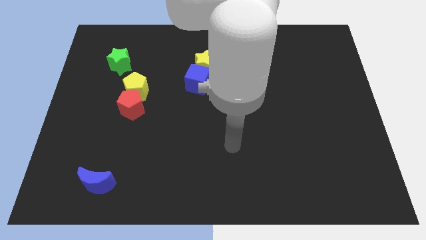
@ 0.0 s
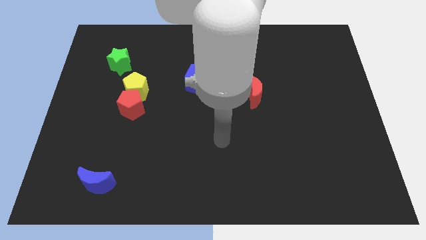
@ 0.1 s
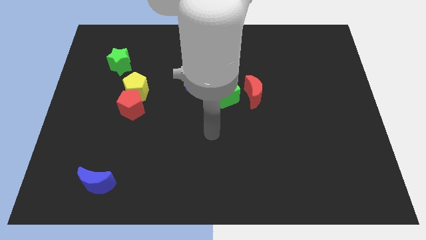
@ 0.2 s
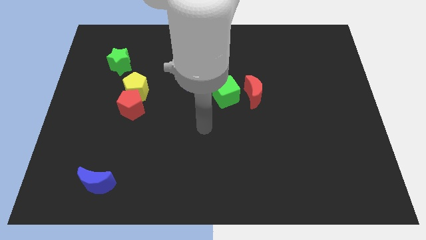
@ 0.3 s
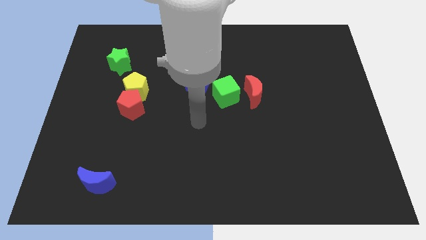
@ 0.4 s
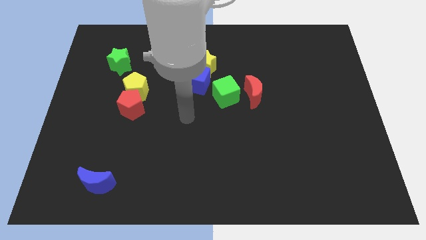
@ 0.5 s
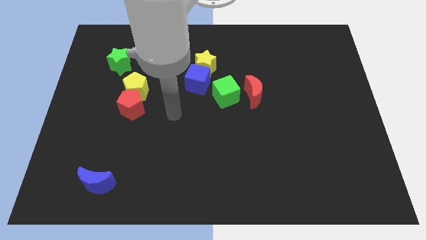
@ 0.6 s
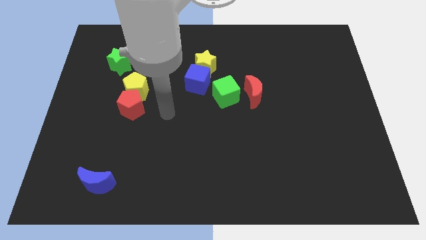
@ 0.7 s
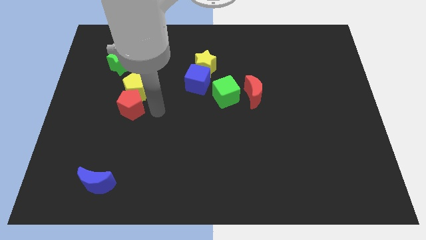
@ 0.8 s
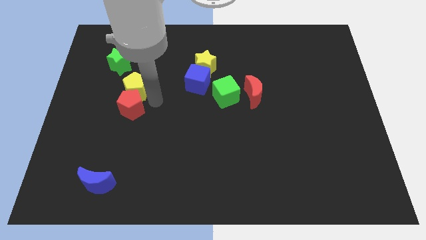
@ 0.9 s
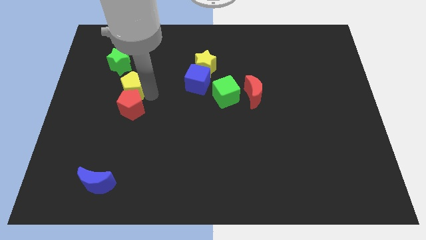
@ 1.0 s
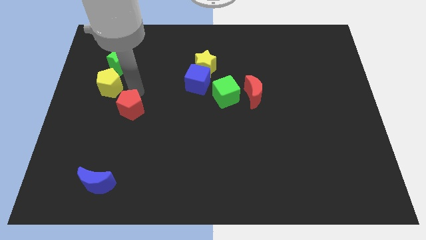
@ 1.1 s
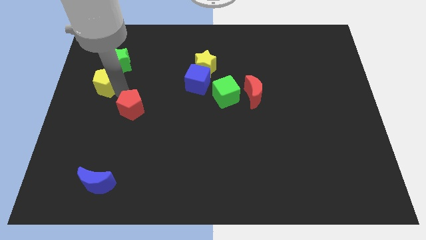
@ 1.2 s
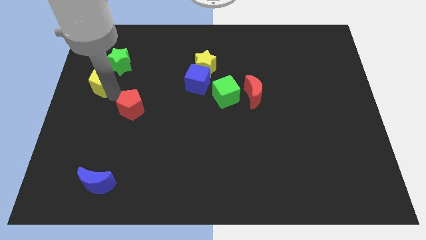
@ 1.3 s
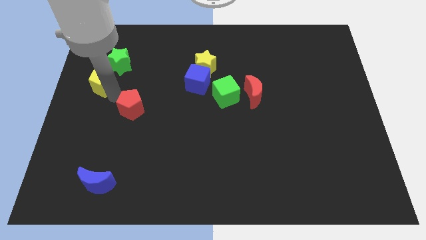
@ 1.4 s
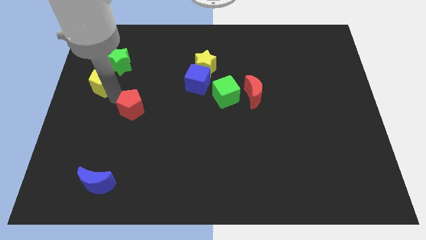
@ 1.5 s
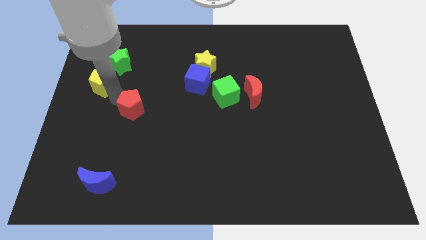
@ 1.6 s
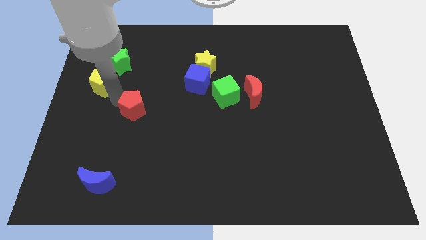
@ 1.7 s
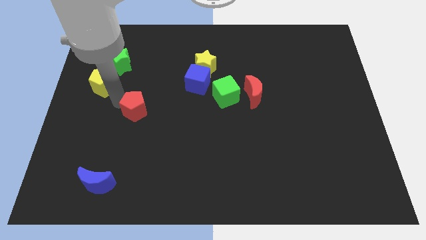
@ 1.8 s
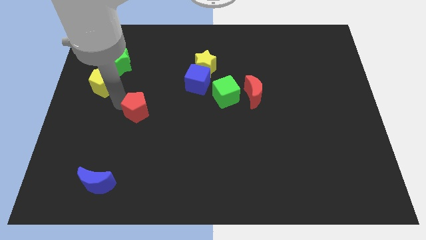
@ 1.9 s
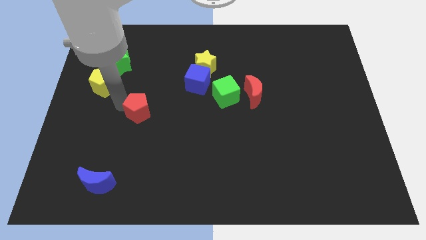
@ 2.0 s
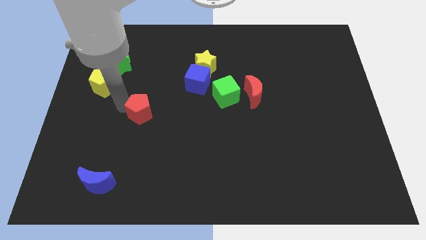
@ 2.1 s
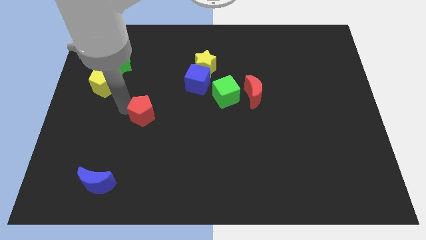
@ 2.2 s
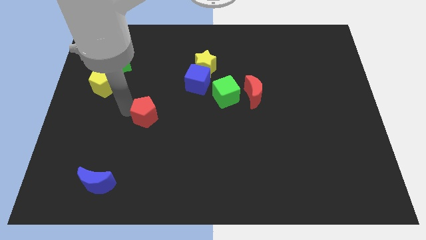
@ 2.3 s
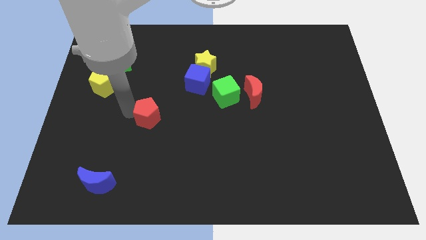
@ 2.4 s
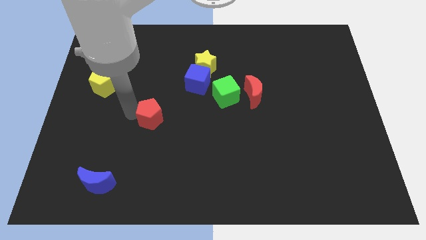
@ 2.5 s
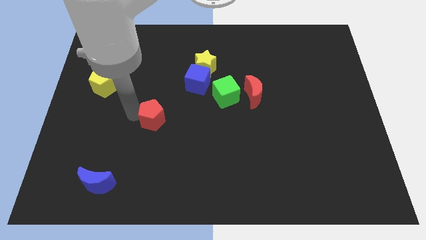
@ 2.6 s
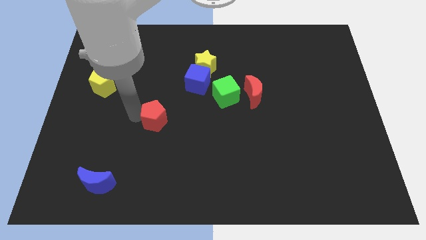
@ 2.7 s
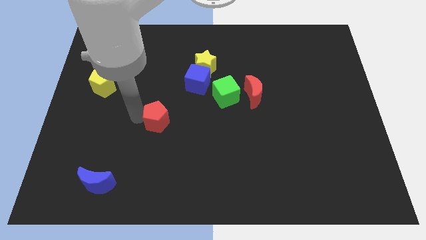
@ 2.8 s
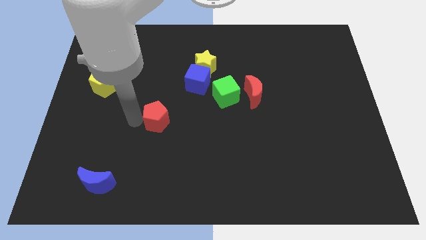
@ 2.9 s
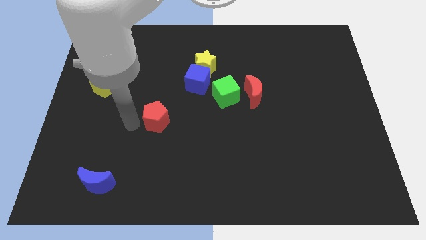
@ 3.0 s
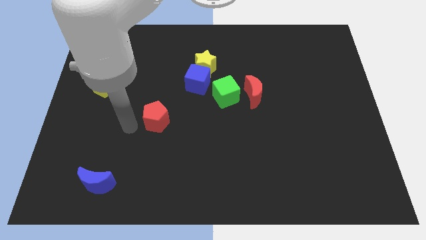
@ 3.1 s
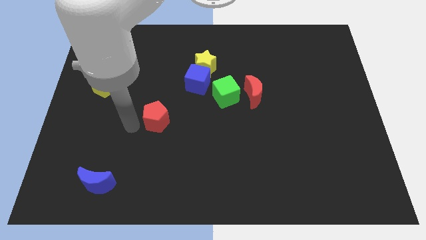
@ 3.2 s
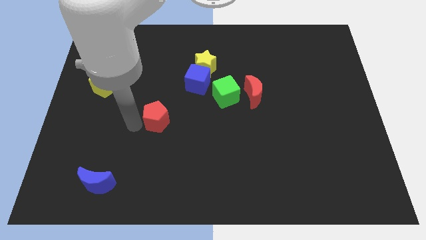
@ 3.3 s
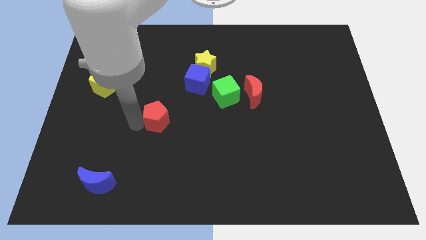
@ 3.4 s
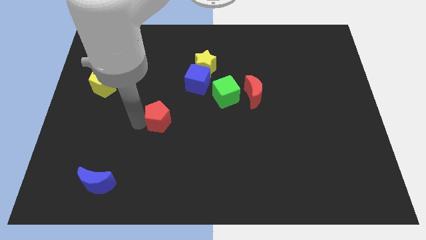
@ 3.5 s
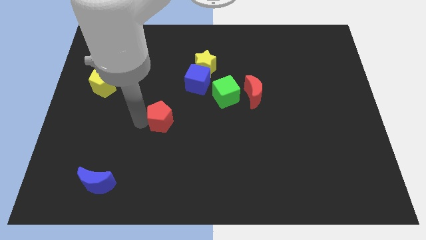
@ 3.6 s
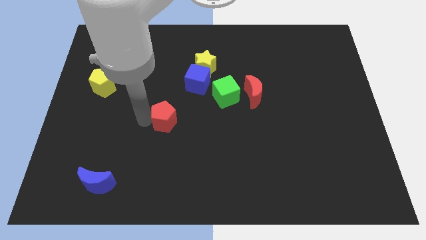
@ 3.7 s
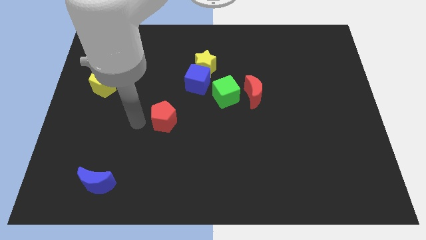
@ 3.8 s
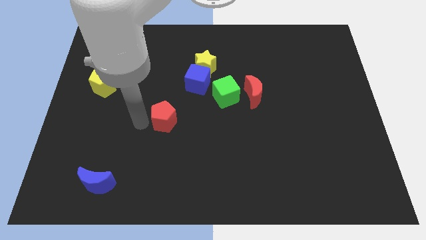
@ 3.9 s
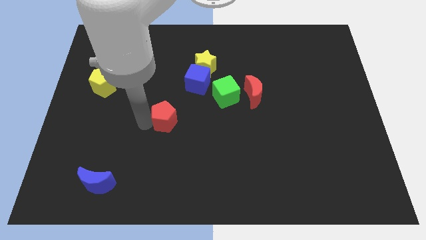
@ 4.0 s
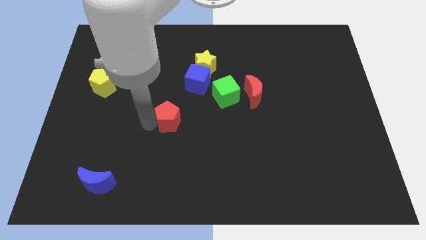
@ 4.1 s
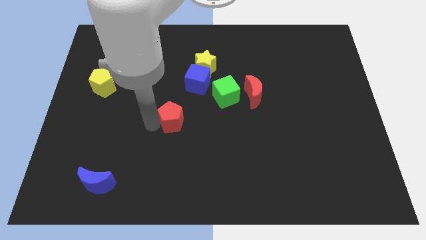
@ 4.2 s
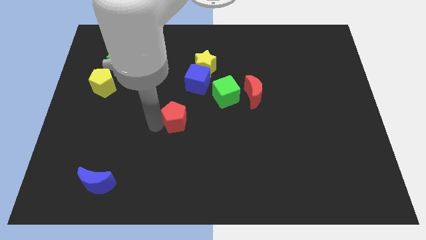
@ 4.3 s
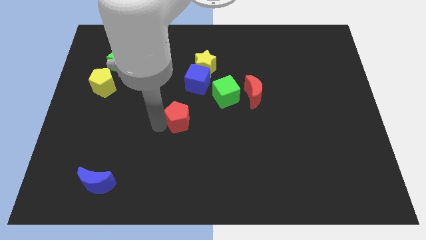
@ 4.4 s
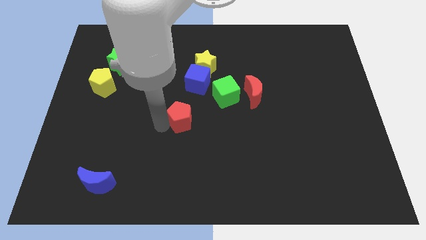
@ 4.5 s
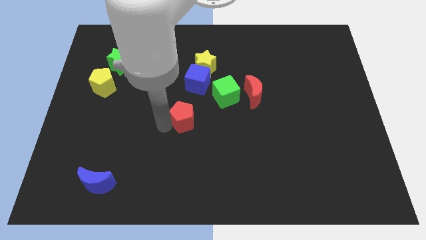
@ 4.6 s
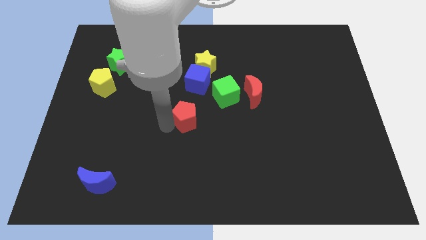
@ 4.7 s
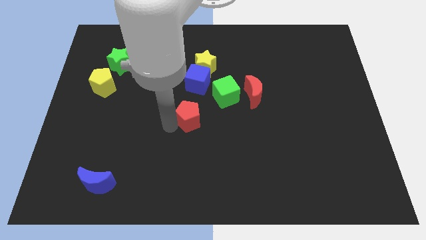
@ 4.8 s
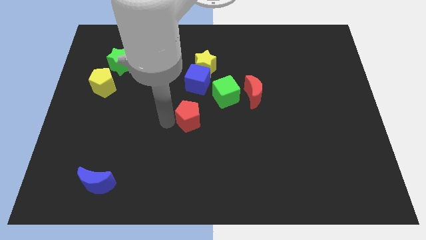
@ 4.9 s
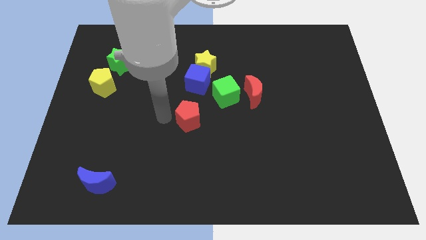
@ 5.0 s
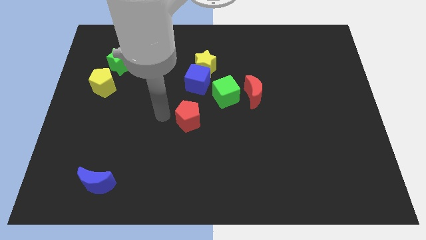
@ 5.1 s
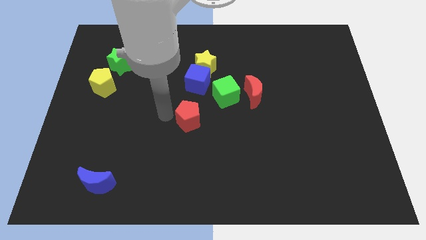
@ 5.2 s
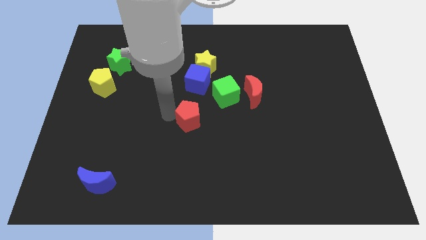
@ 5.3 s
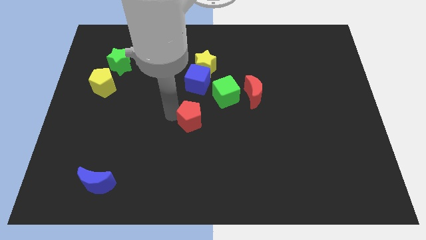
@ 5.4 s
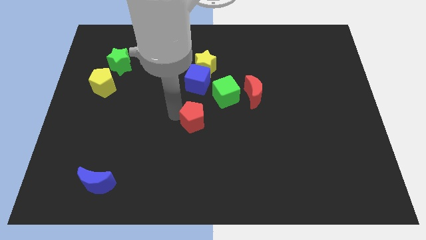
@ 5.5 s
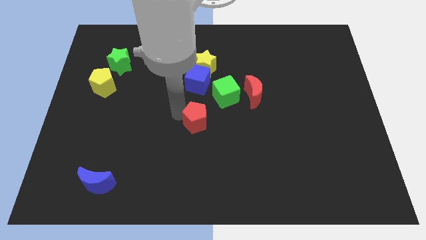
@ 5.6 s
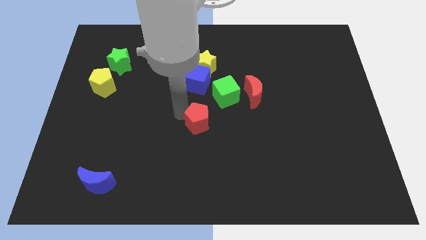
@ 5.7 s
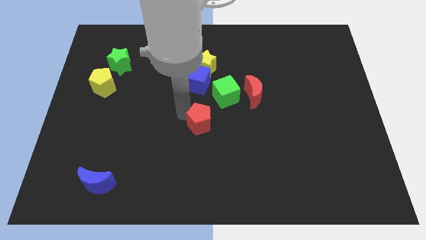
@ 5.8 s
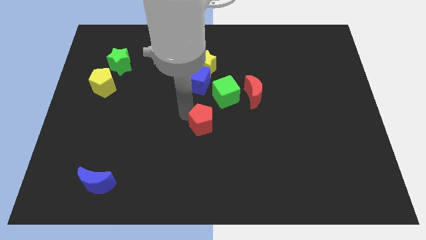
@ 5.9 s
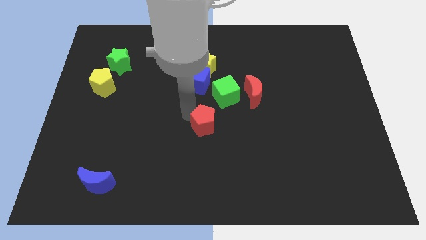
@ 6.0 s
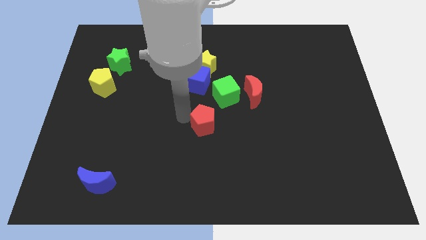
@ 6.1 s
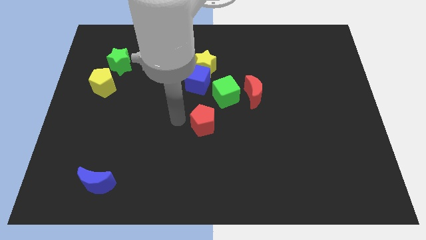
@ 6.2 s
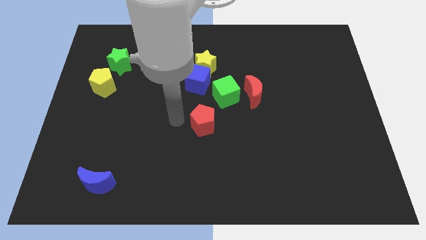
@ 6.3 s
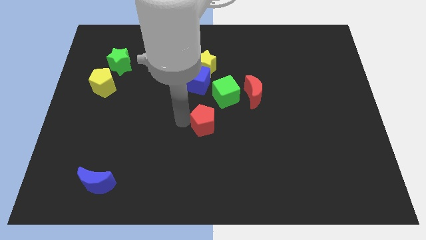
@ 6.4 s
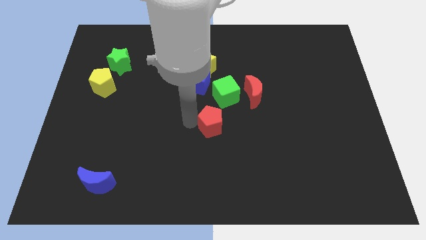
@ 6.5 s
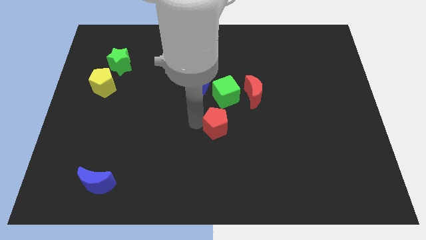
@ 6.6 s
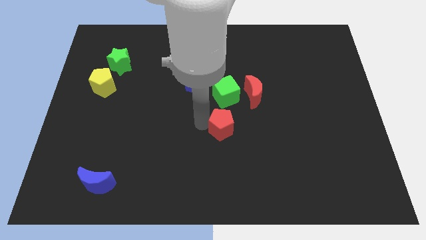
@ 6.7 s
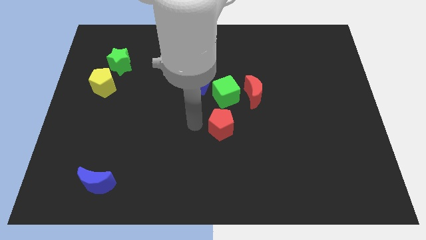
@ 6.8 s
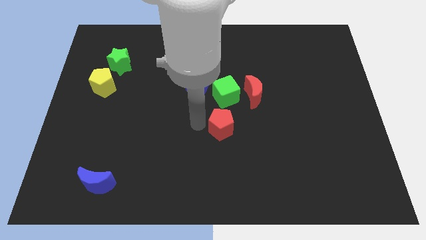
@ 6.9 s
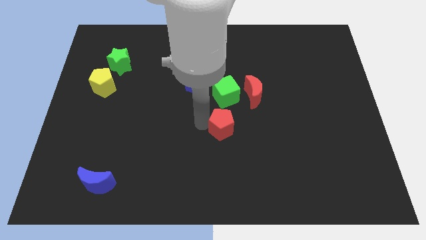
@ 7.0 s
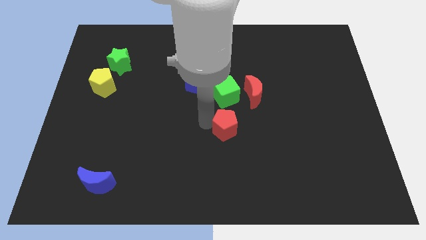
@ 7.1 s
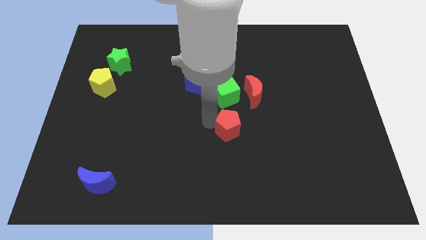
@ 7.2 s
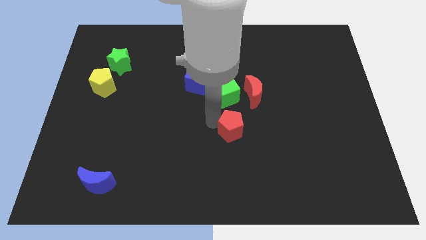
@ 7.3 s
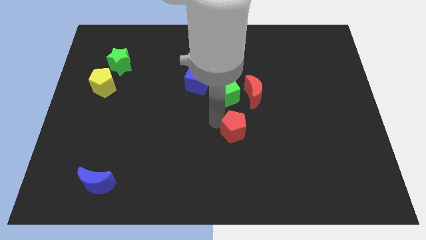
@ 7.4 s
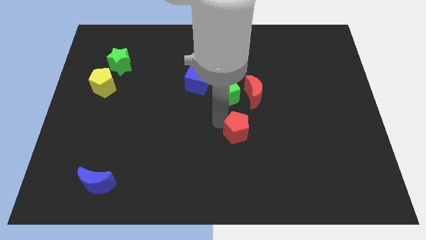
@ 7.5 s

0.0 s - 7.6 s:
slide the red pentagon to the bottom of the red moon

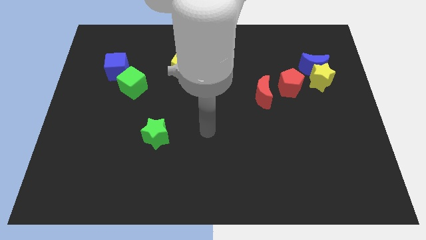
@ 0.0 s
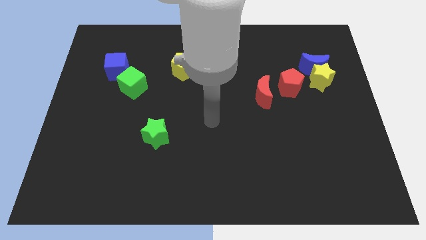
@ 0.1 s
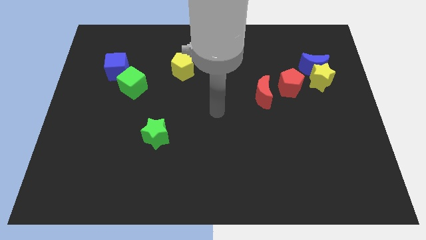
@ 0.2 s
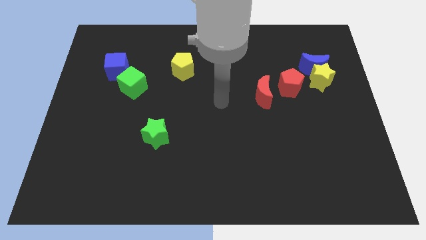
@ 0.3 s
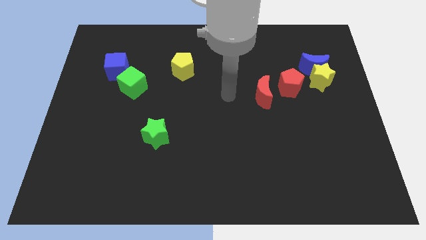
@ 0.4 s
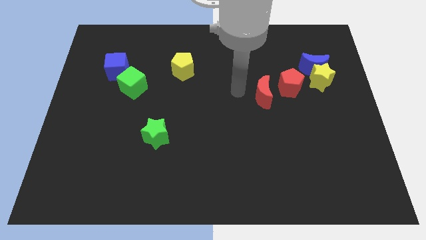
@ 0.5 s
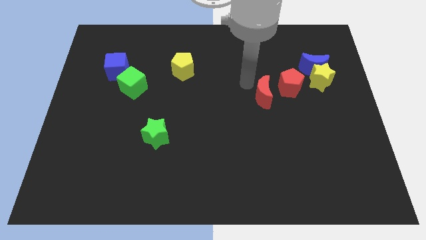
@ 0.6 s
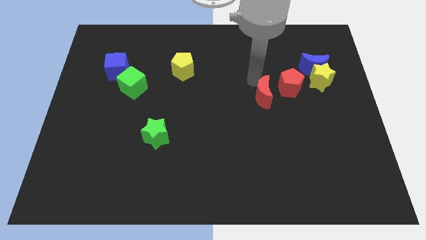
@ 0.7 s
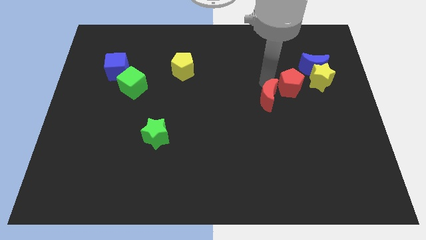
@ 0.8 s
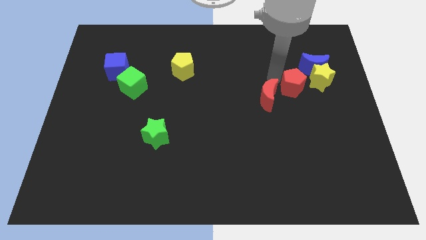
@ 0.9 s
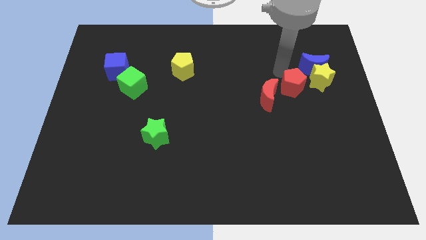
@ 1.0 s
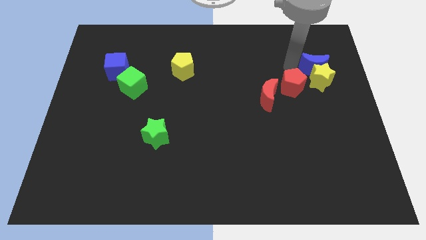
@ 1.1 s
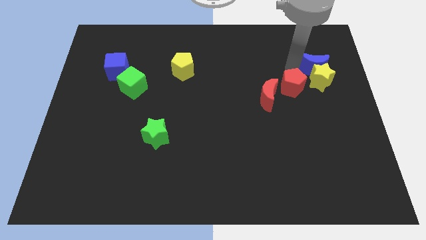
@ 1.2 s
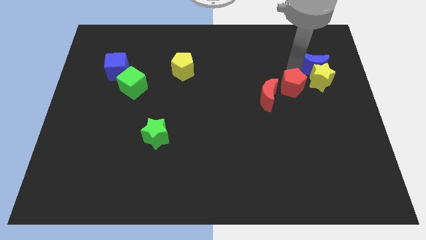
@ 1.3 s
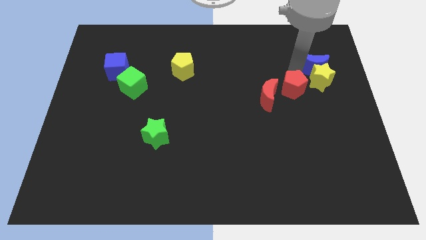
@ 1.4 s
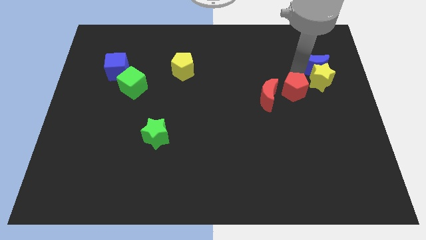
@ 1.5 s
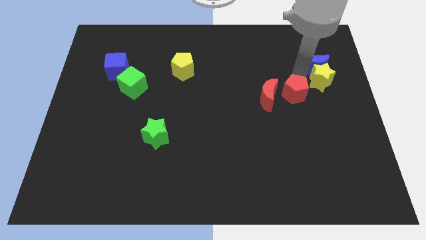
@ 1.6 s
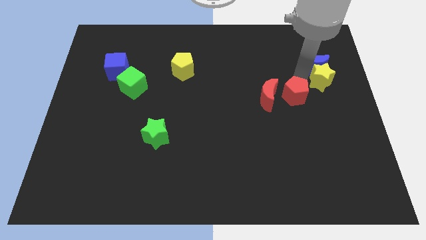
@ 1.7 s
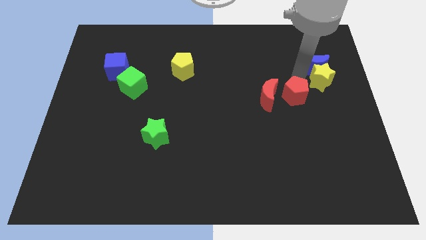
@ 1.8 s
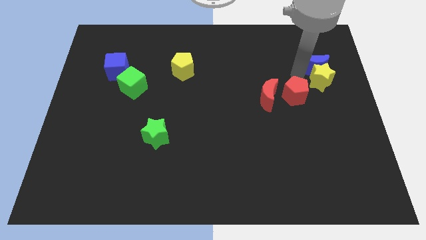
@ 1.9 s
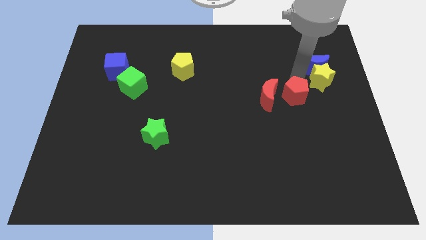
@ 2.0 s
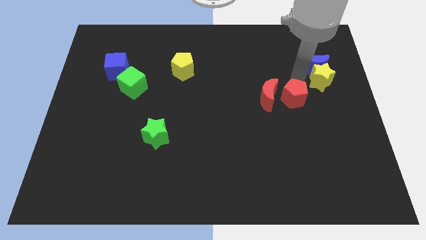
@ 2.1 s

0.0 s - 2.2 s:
put the red pentagon diagonally down and to the right of the red moon
